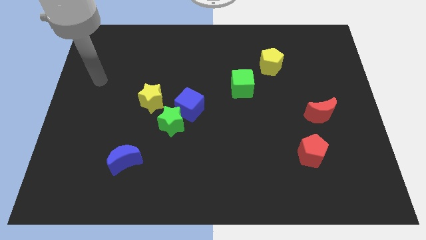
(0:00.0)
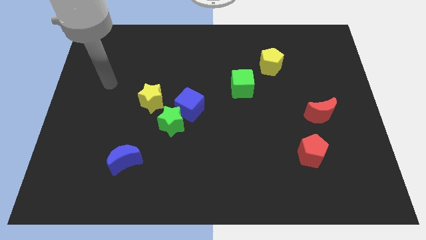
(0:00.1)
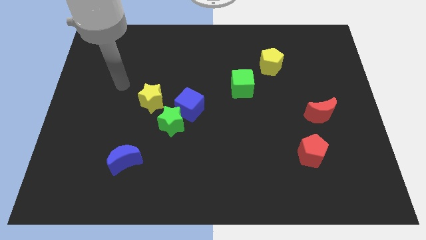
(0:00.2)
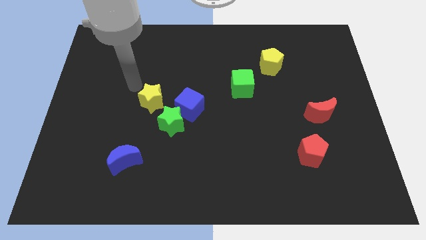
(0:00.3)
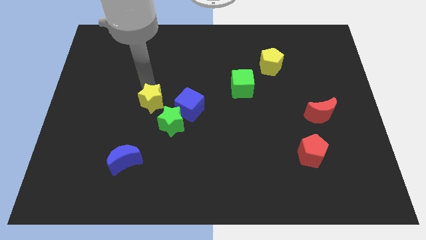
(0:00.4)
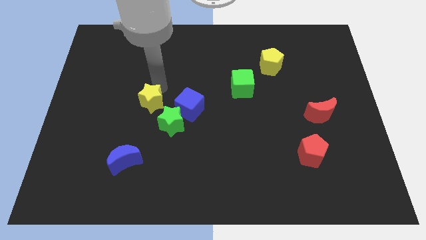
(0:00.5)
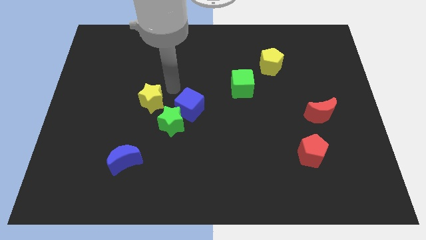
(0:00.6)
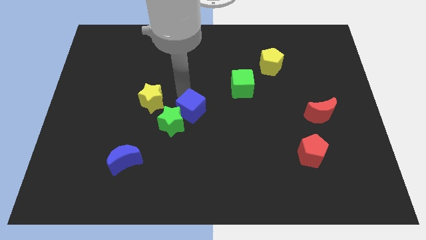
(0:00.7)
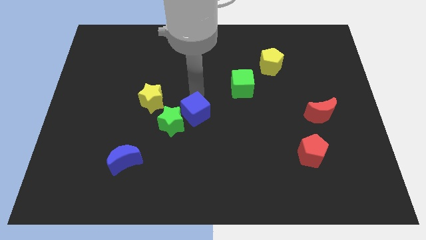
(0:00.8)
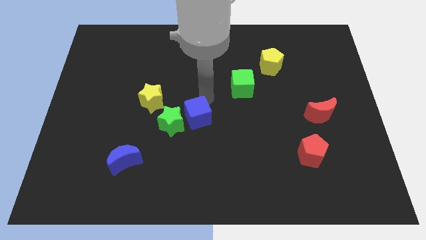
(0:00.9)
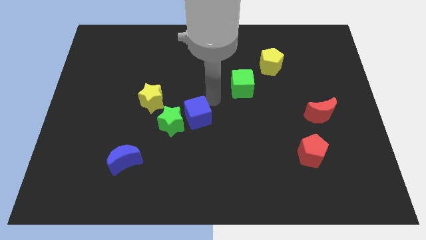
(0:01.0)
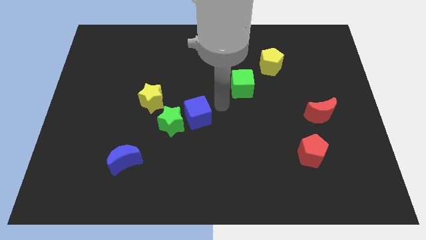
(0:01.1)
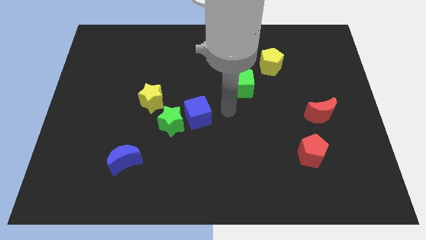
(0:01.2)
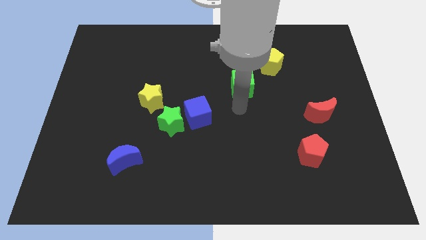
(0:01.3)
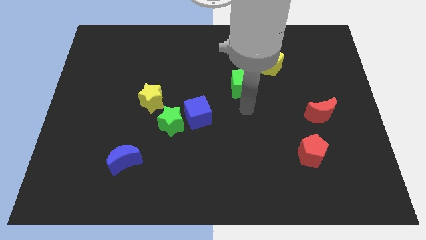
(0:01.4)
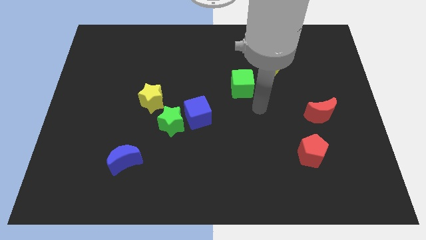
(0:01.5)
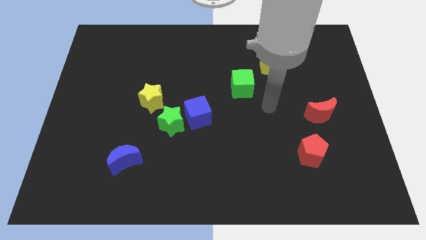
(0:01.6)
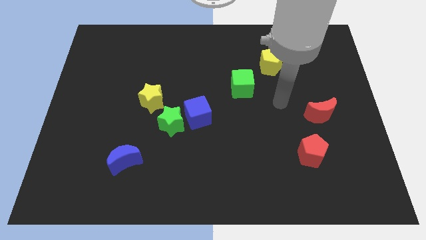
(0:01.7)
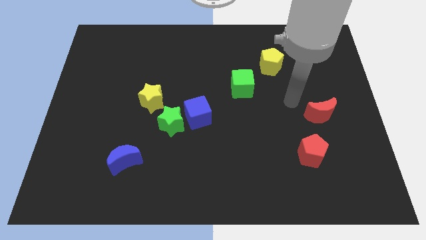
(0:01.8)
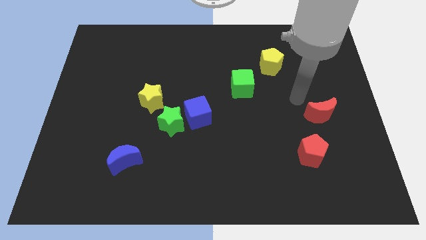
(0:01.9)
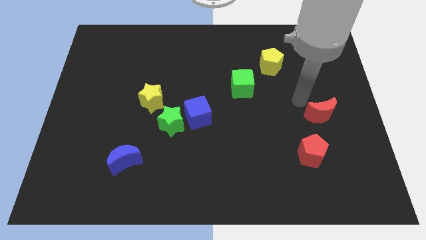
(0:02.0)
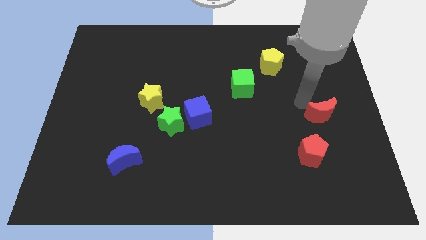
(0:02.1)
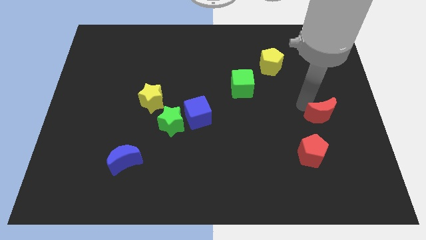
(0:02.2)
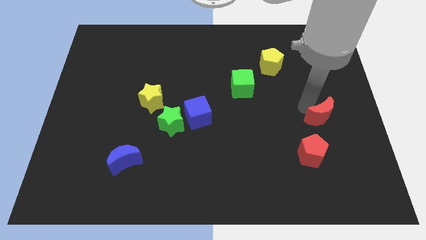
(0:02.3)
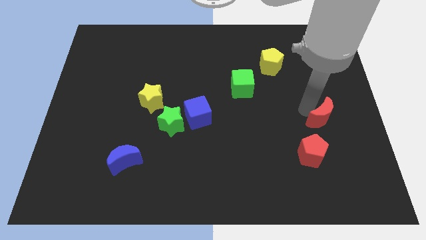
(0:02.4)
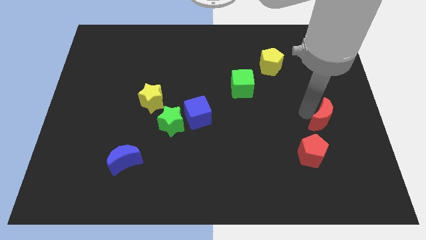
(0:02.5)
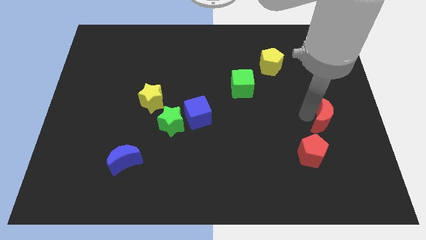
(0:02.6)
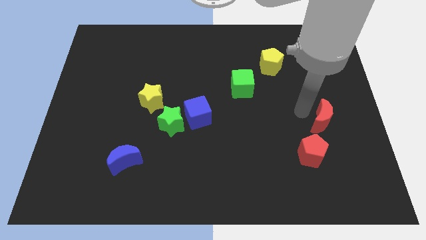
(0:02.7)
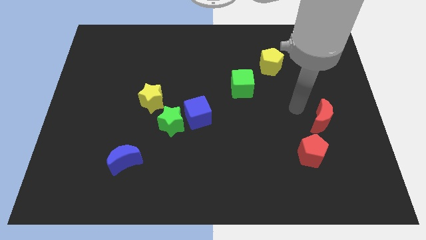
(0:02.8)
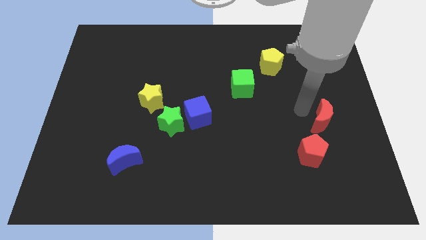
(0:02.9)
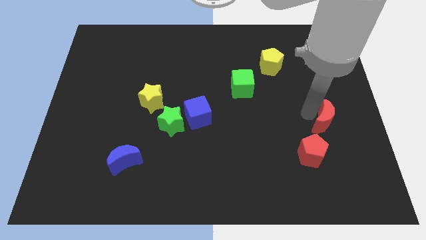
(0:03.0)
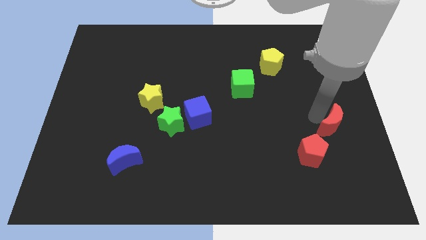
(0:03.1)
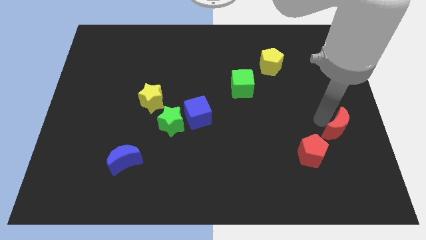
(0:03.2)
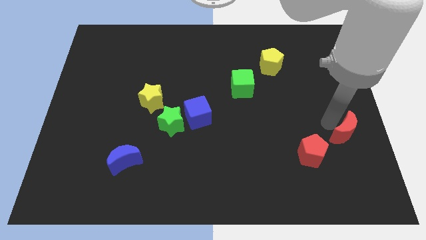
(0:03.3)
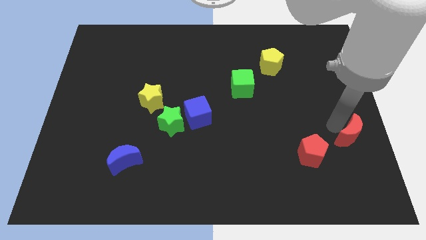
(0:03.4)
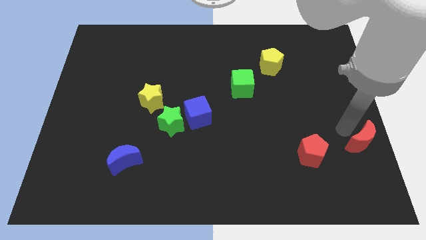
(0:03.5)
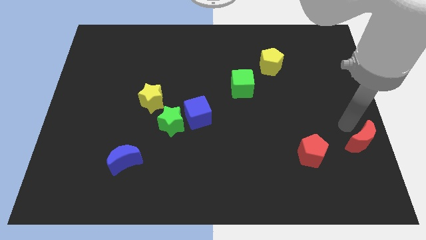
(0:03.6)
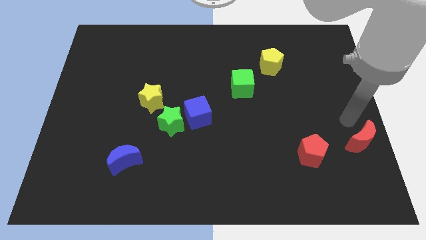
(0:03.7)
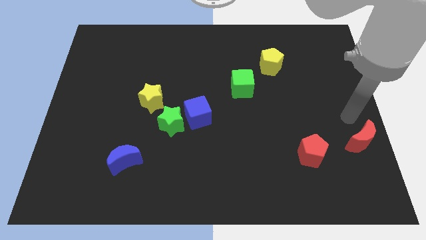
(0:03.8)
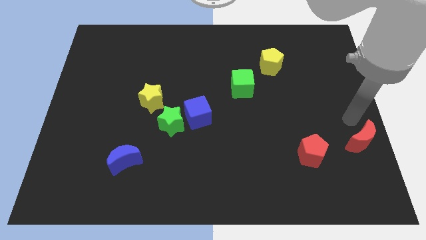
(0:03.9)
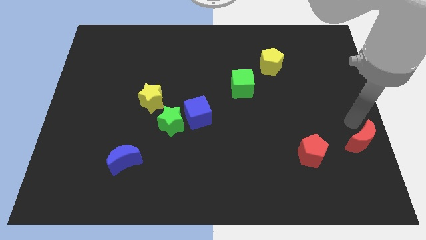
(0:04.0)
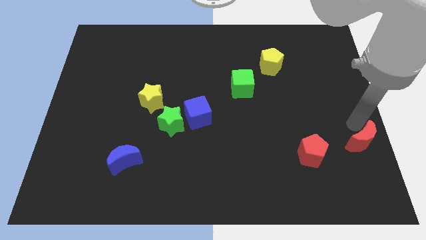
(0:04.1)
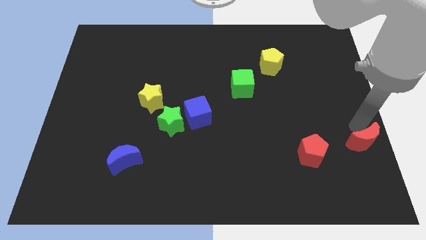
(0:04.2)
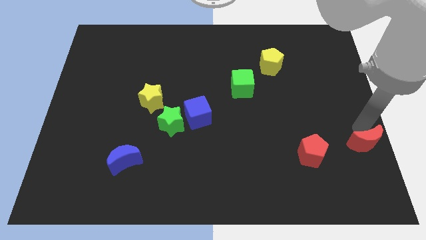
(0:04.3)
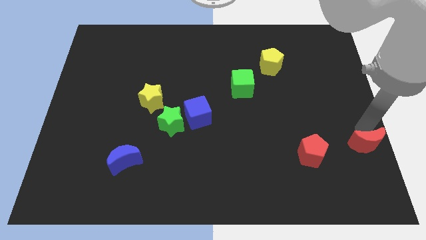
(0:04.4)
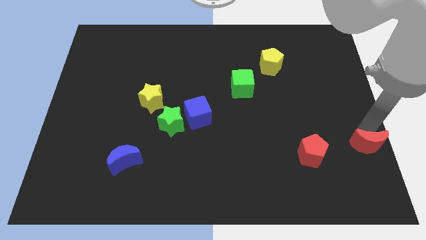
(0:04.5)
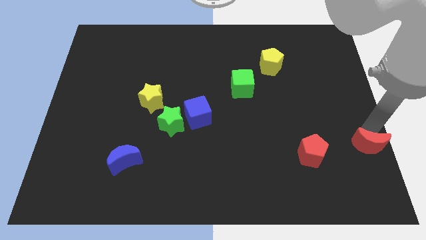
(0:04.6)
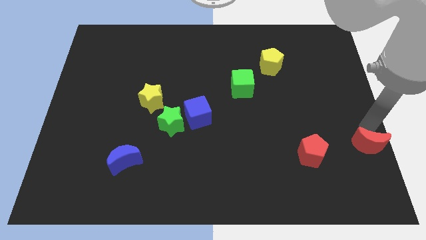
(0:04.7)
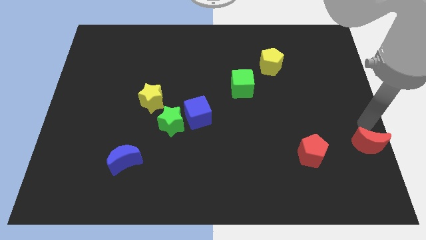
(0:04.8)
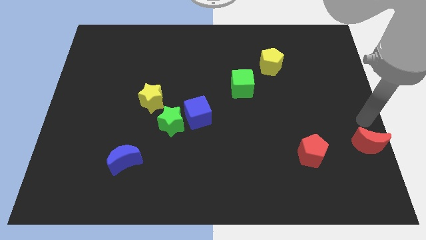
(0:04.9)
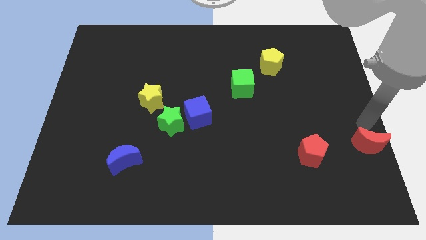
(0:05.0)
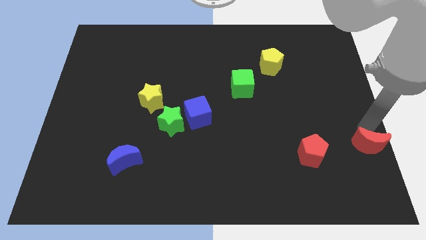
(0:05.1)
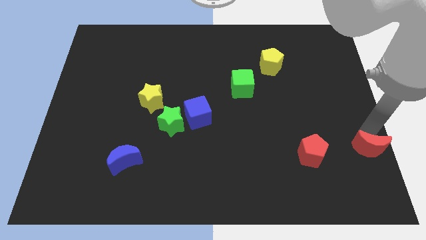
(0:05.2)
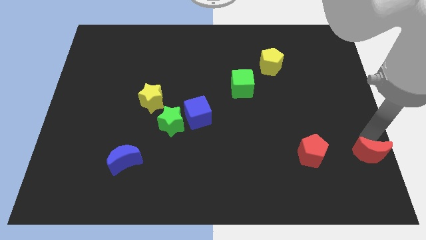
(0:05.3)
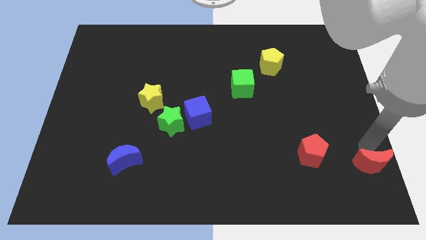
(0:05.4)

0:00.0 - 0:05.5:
push the red moon to the bottom right corner

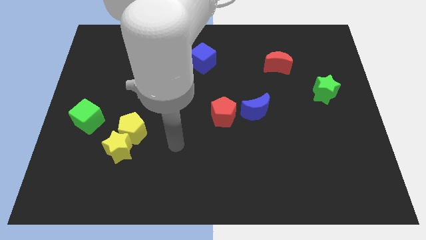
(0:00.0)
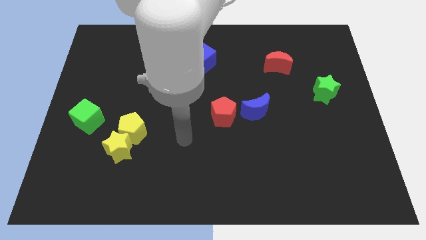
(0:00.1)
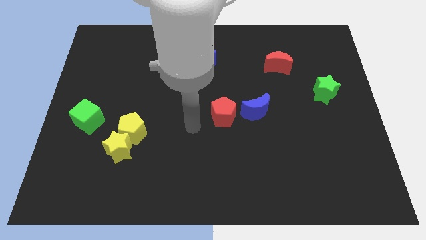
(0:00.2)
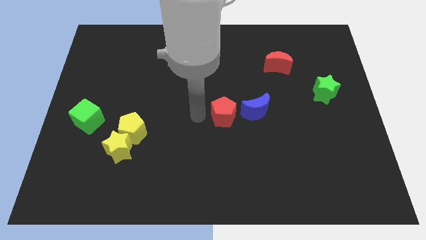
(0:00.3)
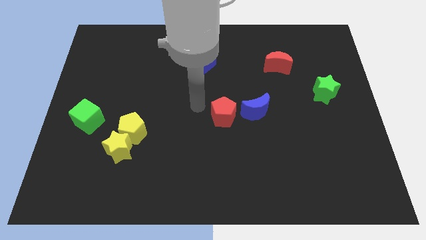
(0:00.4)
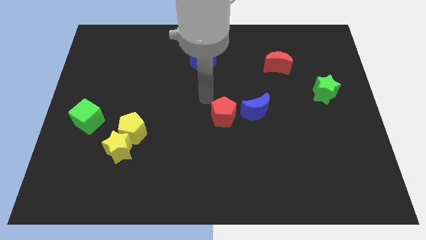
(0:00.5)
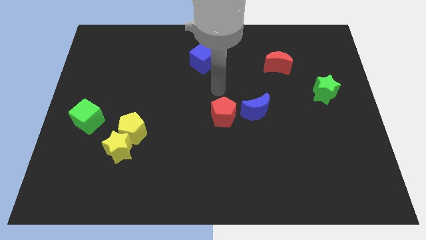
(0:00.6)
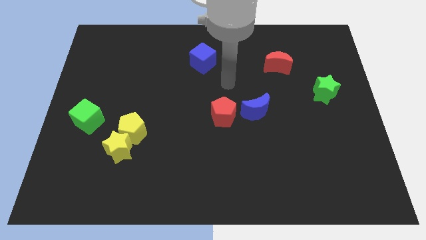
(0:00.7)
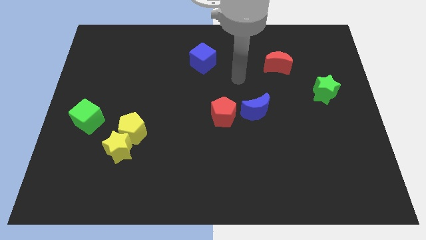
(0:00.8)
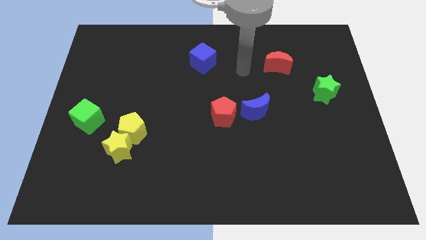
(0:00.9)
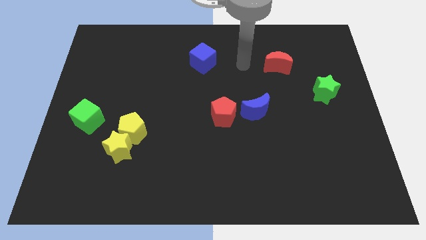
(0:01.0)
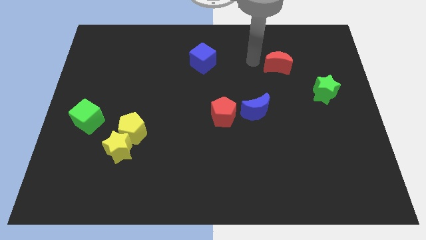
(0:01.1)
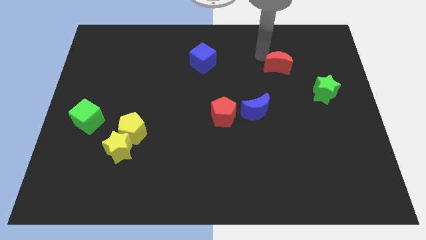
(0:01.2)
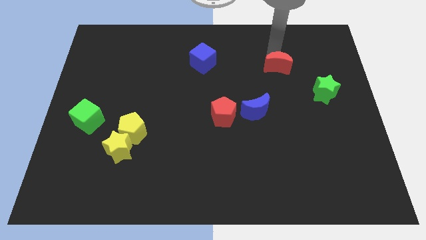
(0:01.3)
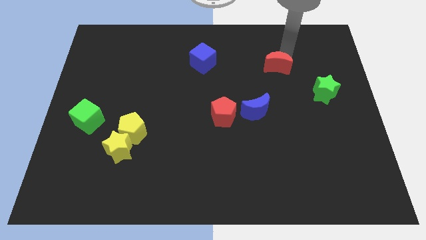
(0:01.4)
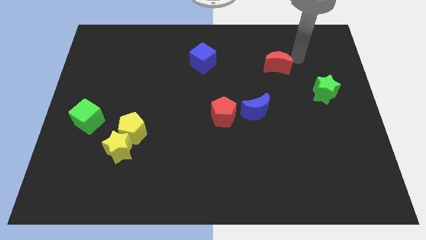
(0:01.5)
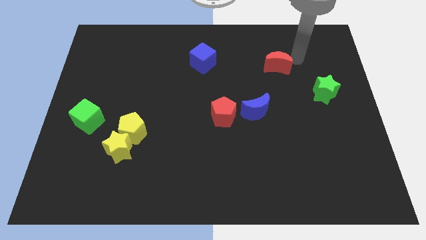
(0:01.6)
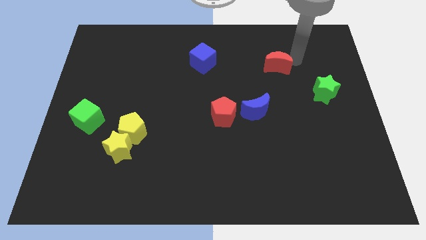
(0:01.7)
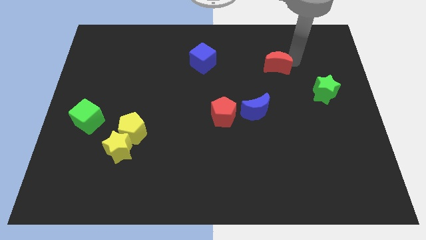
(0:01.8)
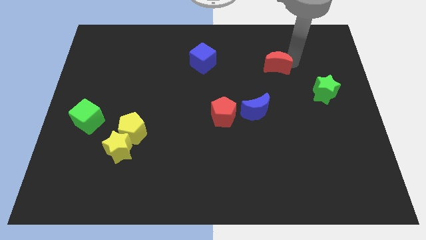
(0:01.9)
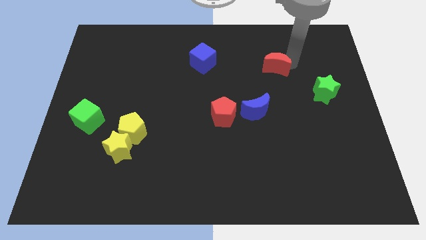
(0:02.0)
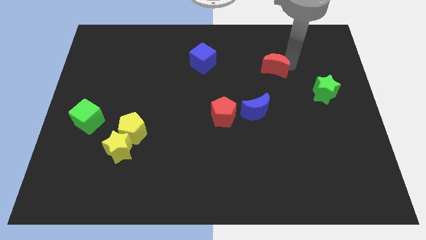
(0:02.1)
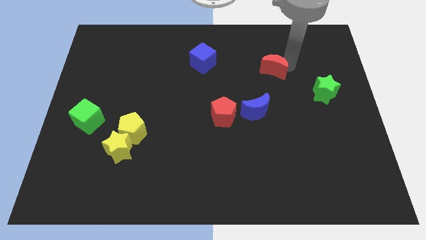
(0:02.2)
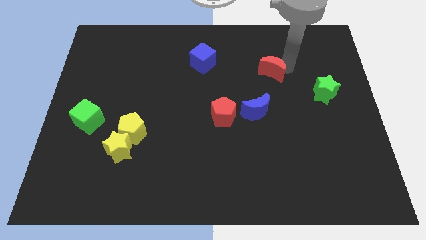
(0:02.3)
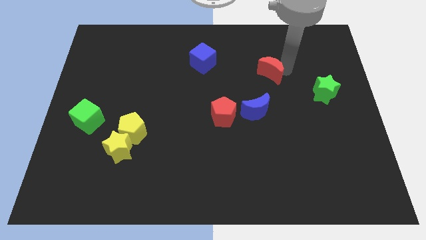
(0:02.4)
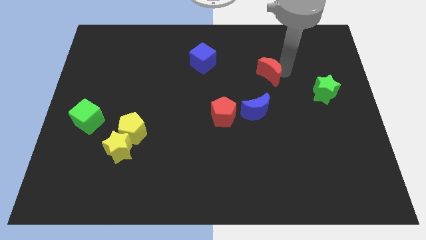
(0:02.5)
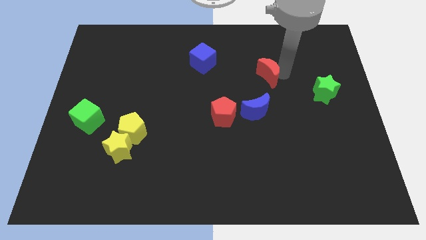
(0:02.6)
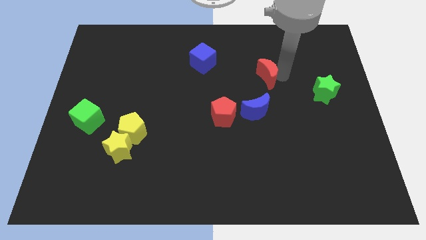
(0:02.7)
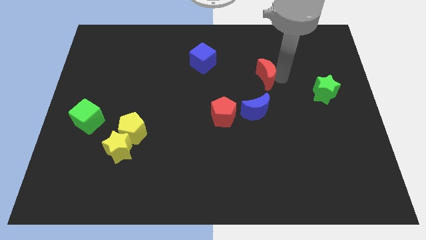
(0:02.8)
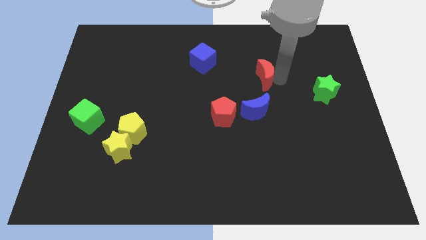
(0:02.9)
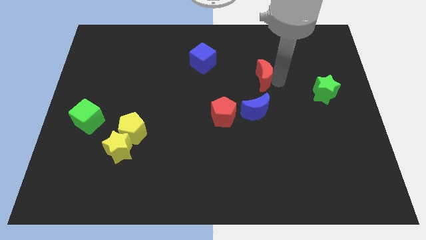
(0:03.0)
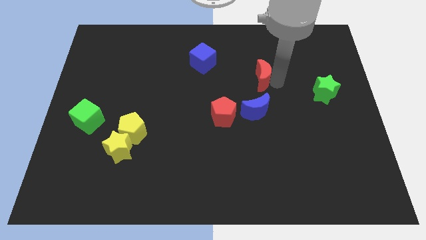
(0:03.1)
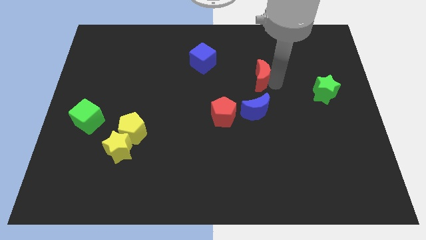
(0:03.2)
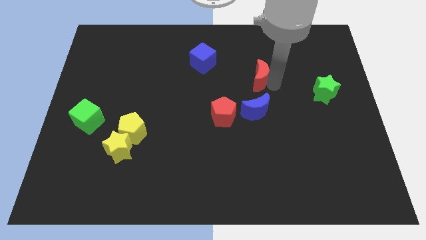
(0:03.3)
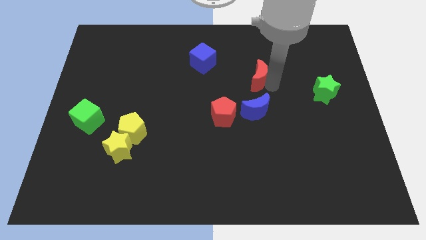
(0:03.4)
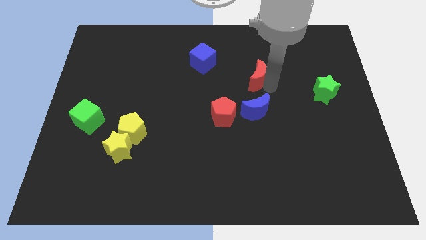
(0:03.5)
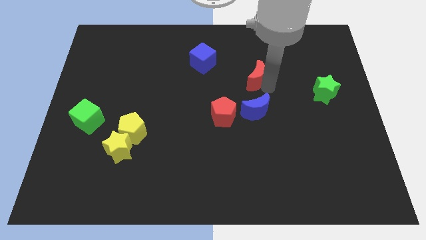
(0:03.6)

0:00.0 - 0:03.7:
slide the red moon to the center
